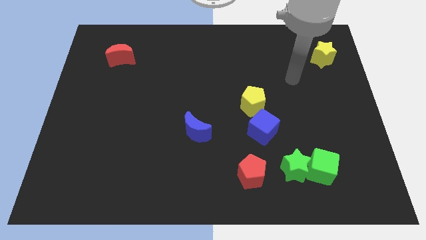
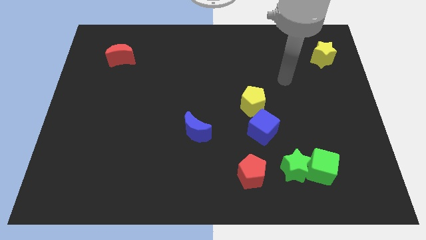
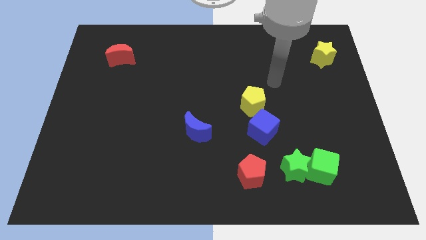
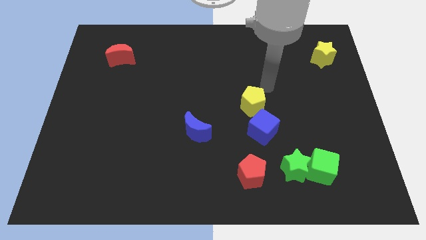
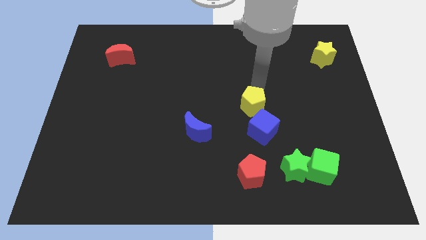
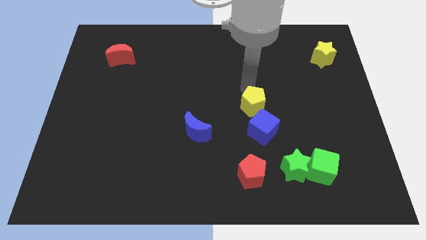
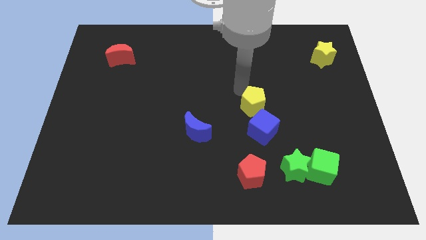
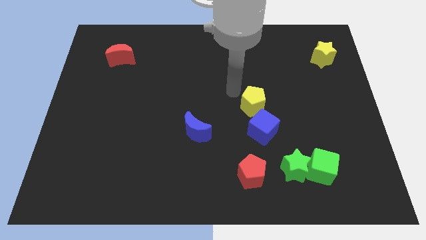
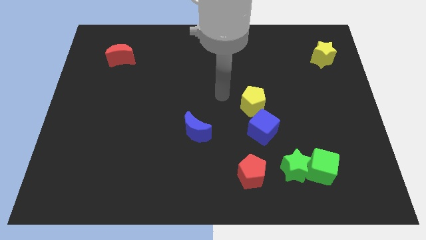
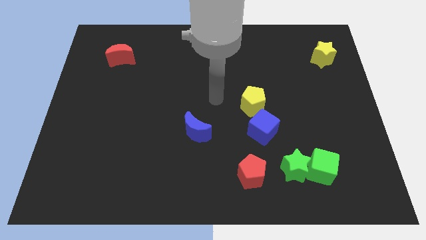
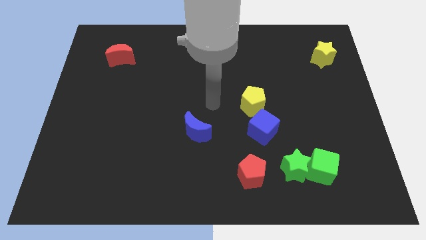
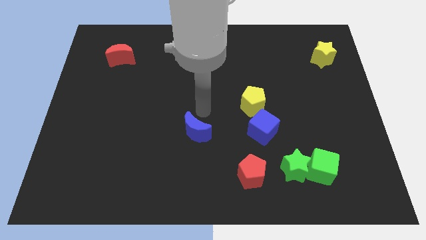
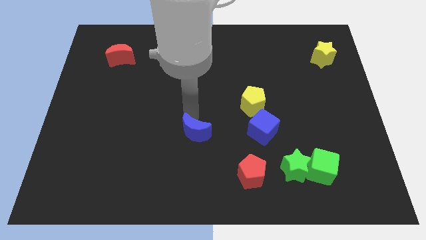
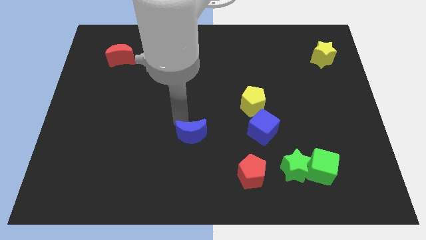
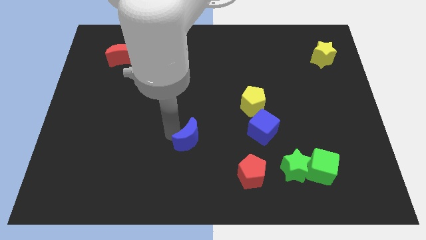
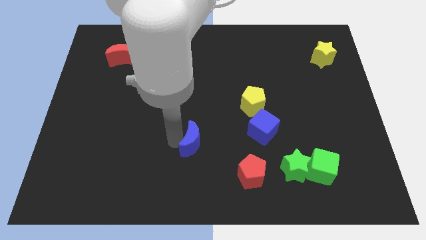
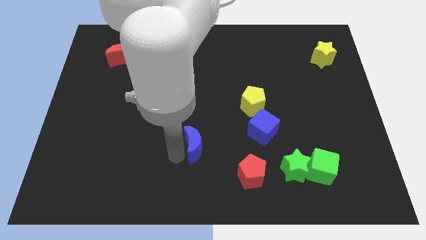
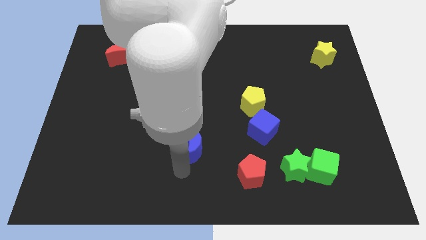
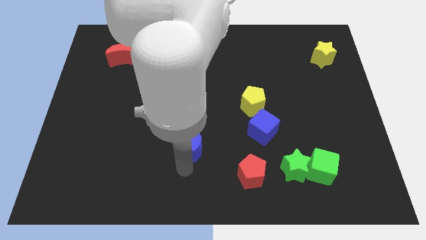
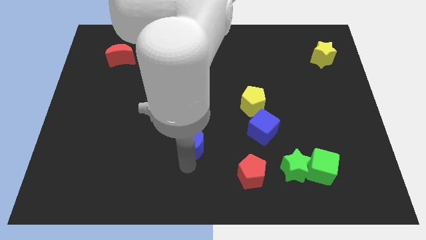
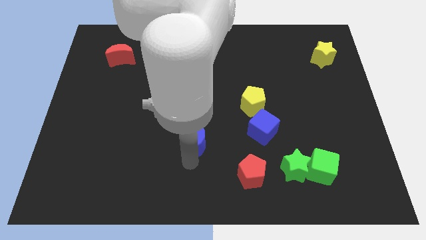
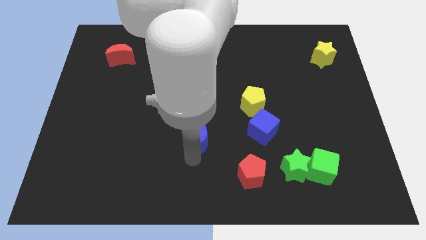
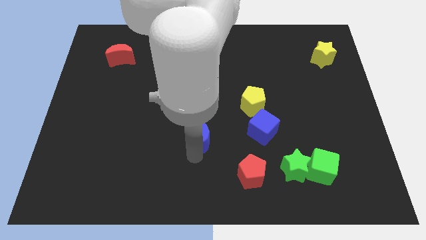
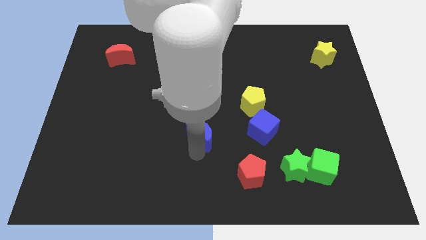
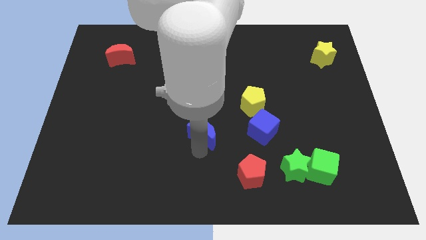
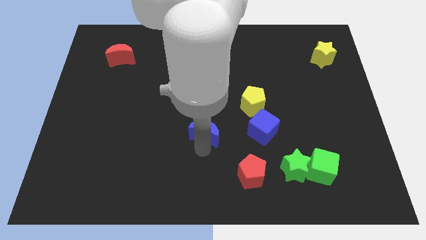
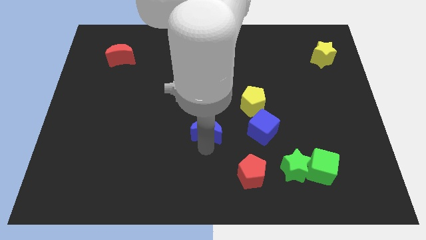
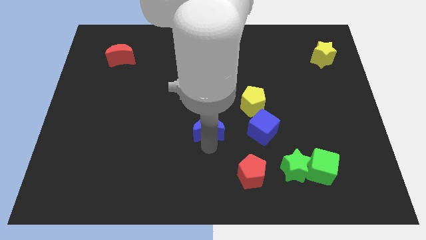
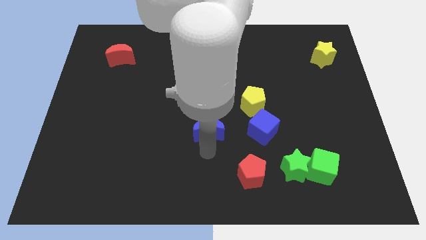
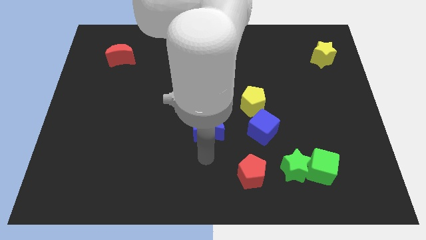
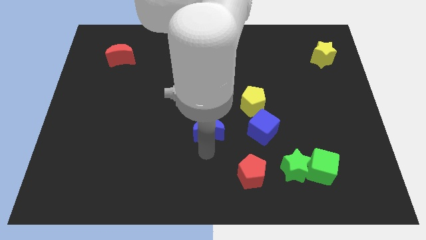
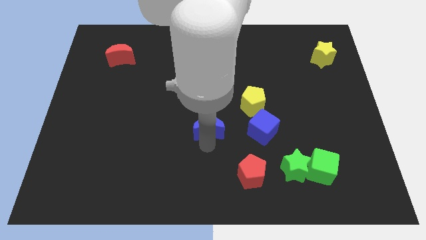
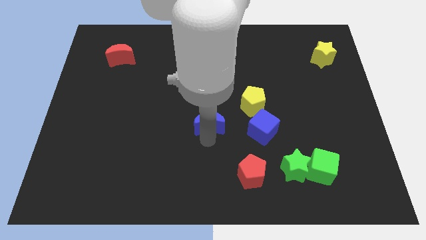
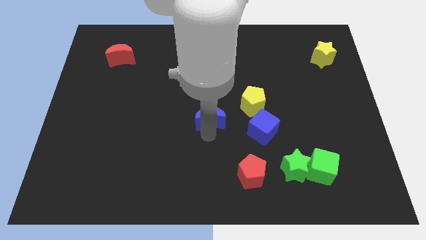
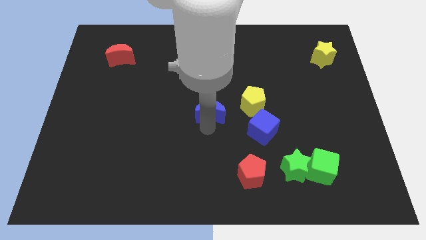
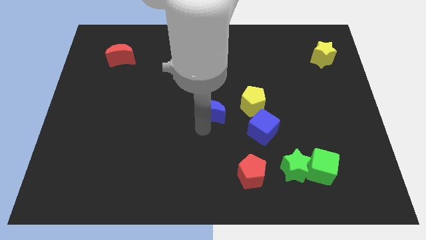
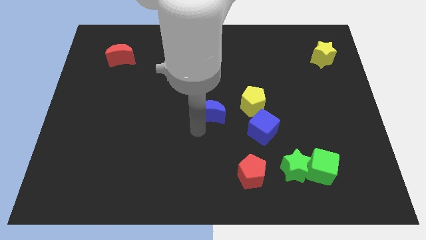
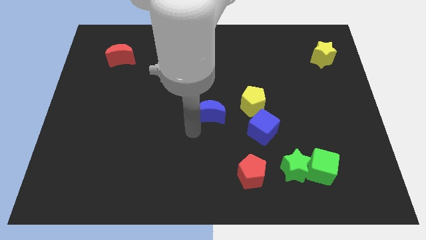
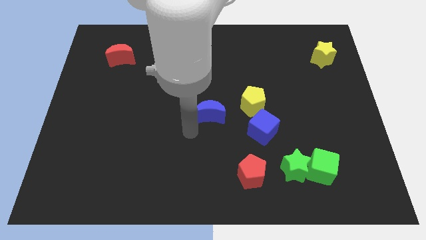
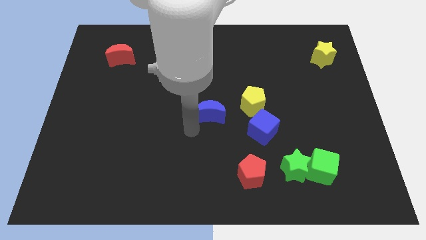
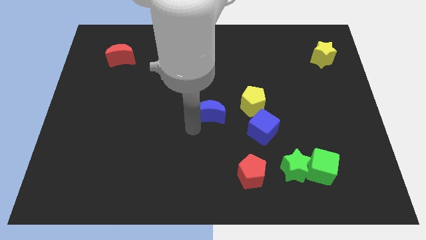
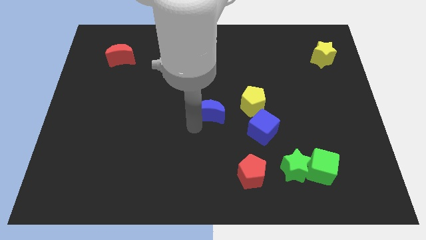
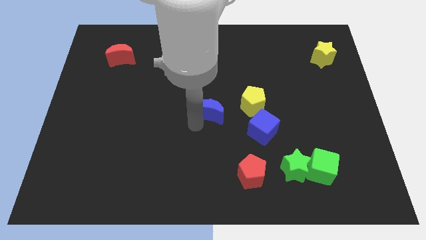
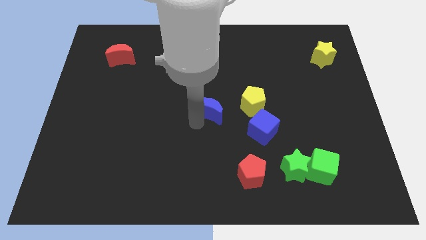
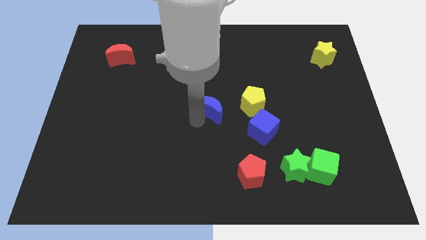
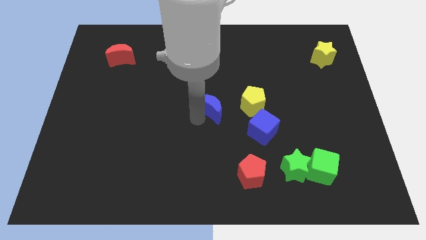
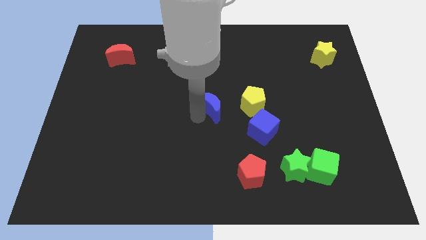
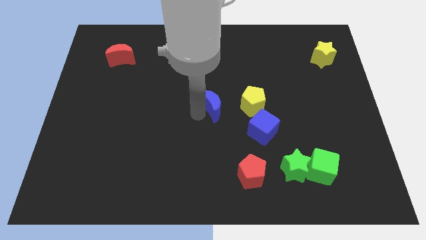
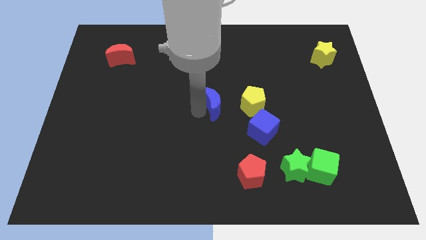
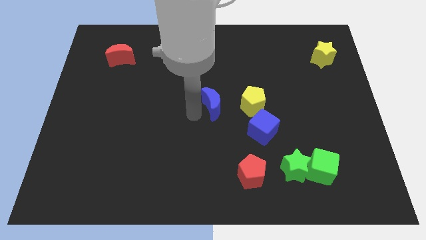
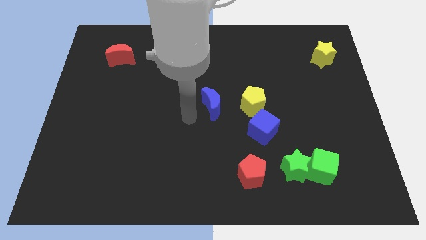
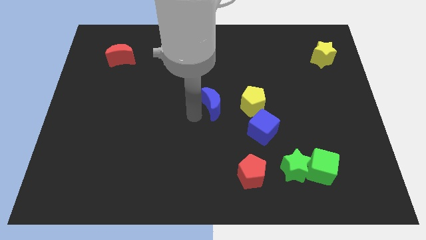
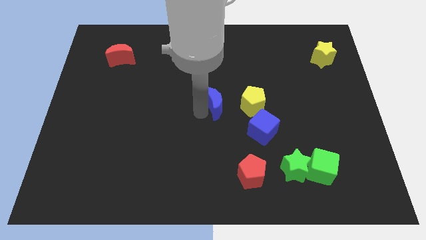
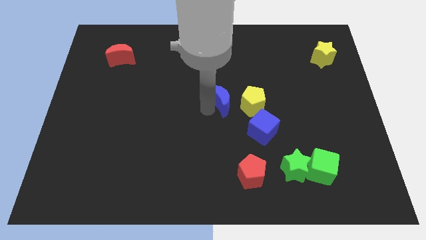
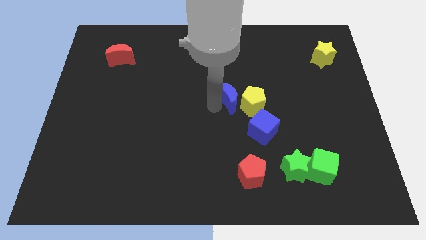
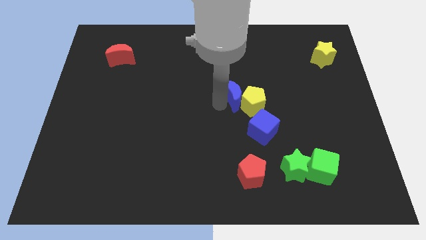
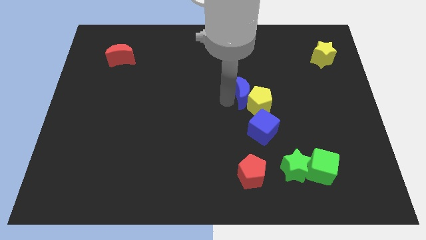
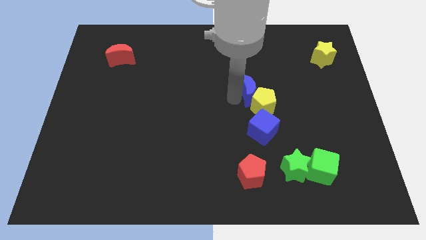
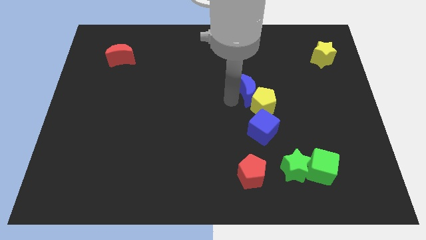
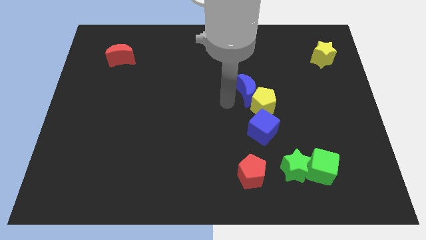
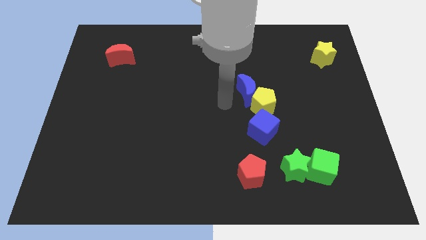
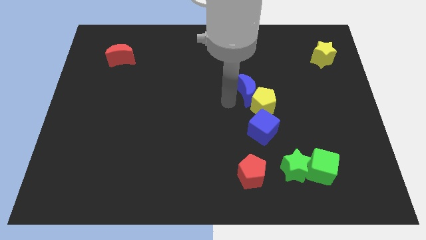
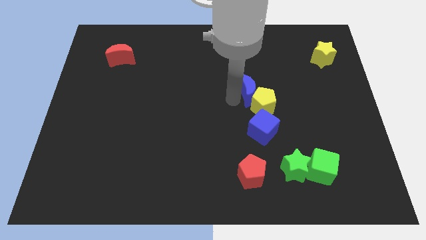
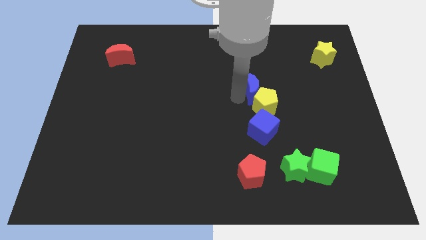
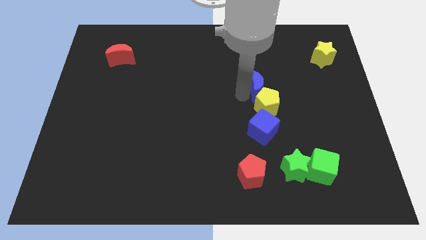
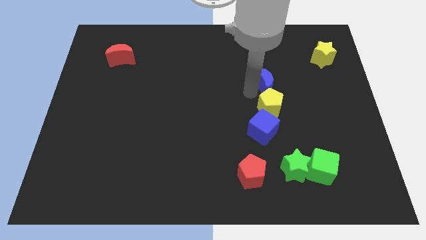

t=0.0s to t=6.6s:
push the blue moon diagonally upwards and right

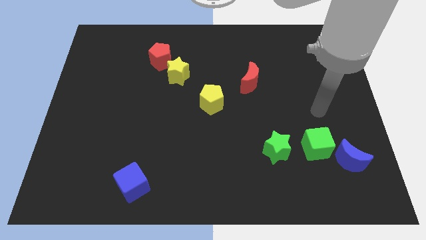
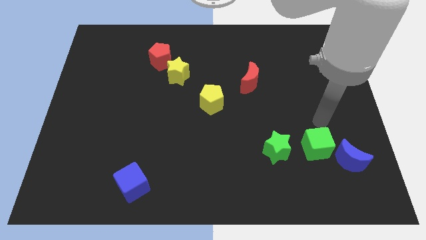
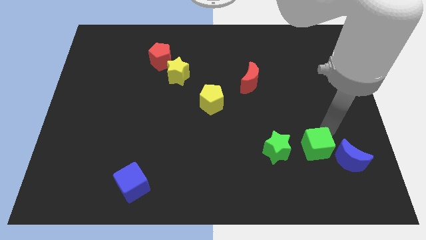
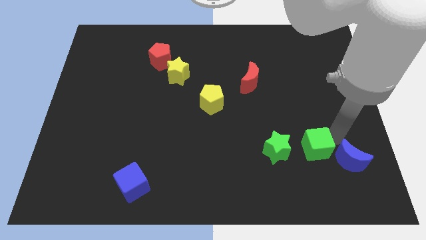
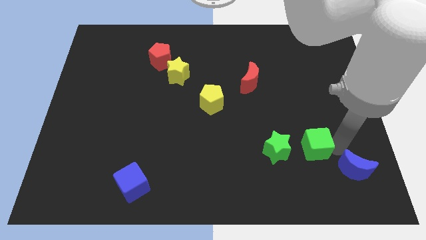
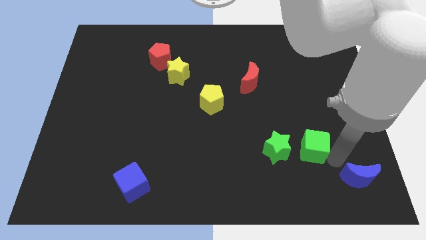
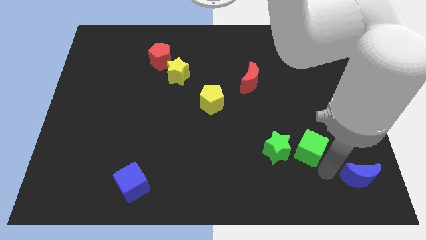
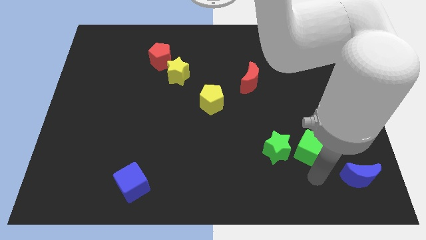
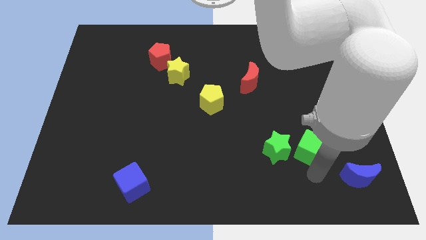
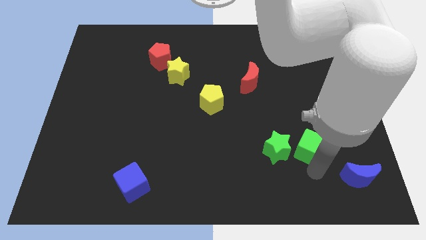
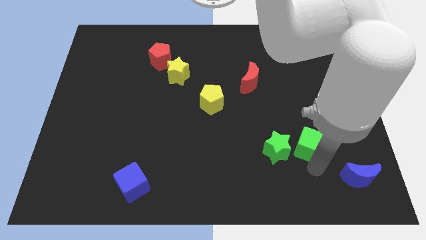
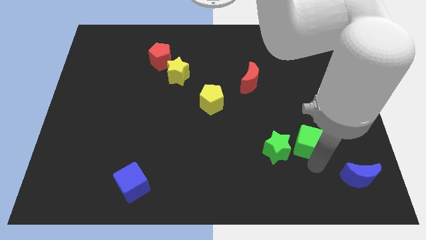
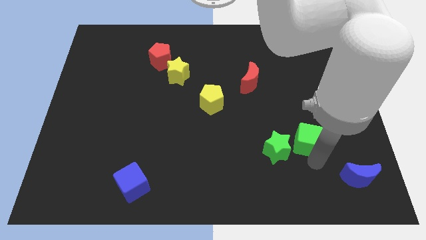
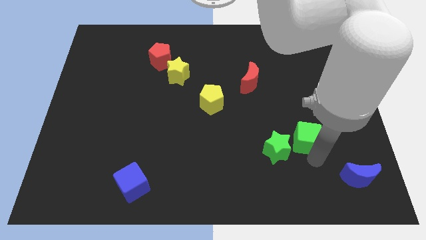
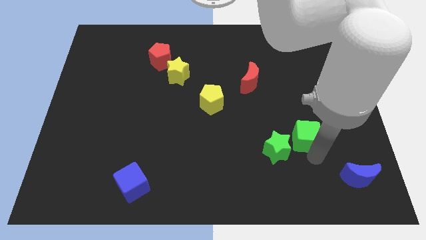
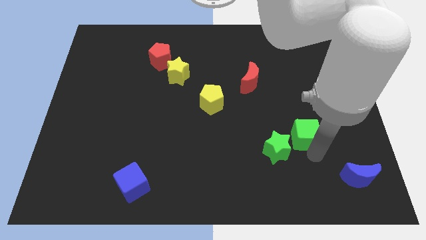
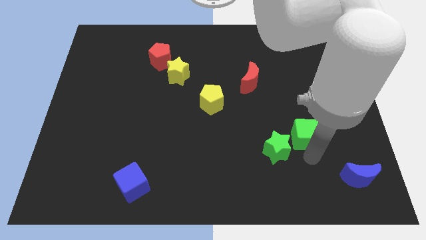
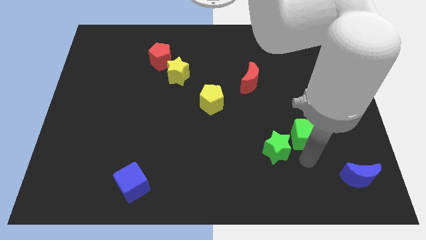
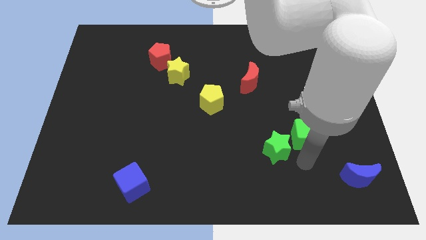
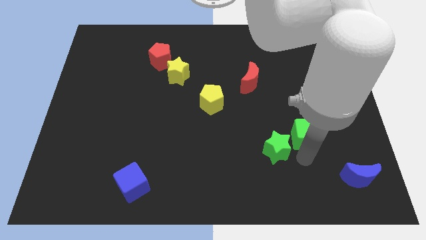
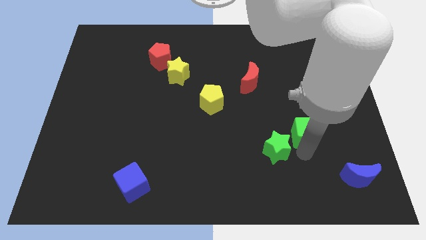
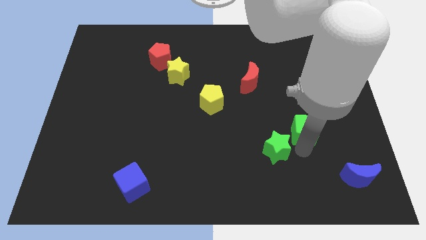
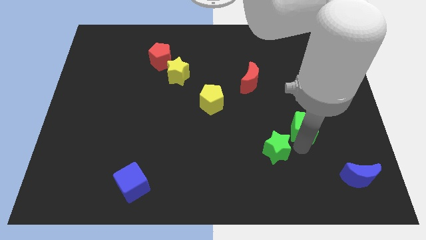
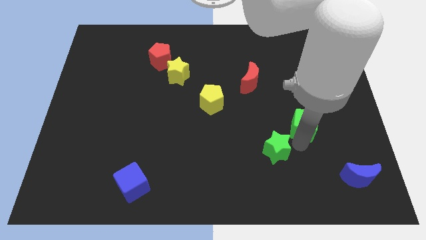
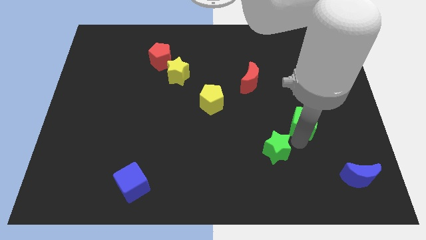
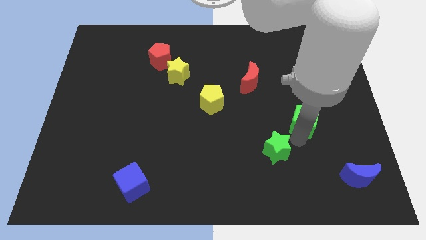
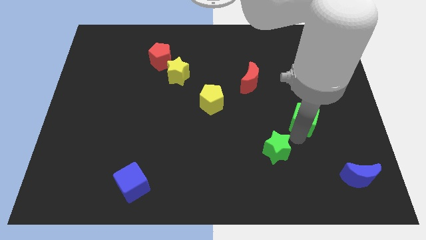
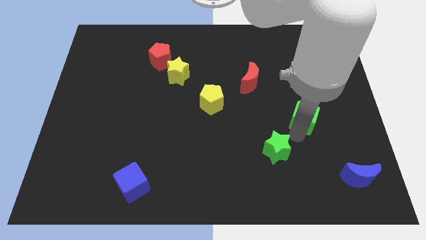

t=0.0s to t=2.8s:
slightly slide the green cube upwards
